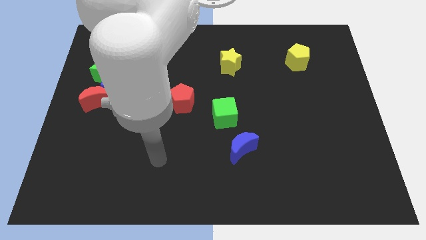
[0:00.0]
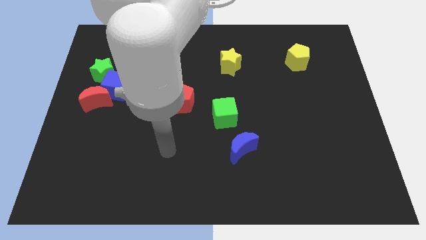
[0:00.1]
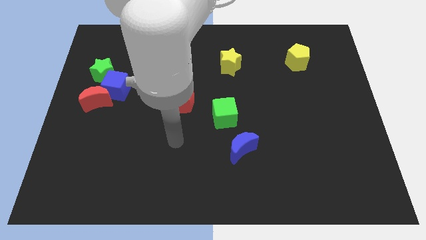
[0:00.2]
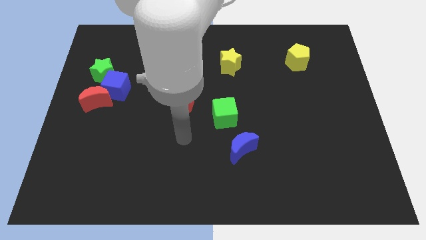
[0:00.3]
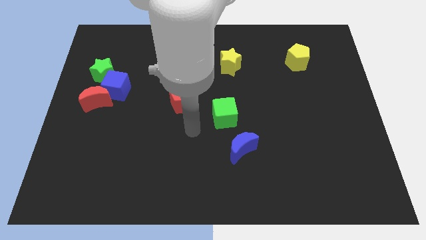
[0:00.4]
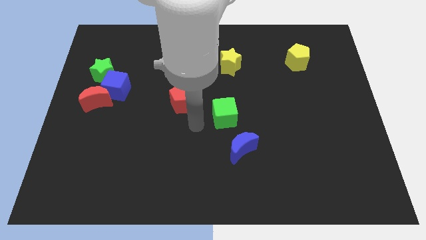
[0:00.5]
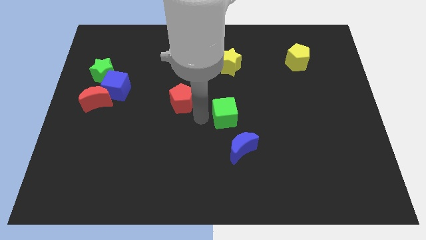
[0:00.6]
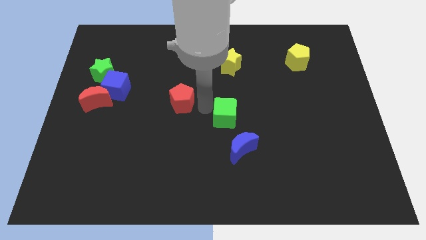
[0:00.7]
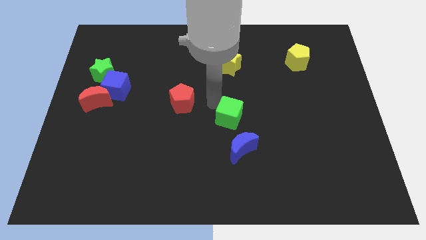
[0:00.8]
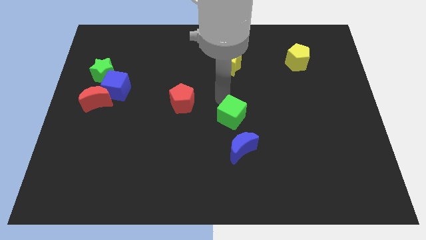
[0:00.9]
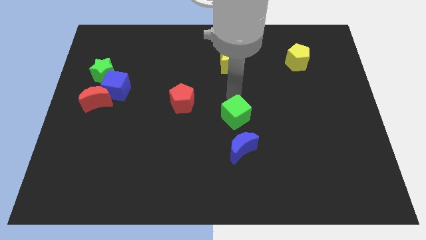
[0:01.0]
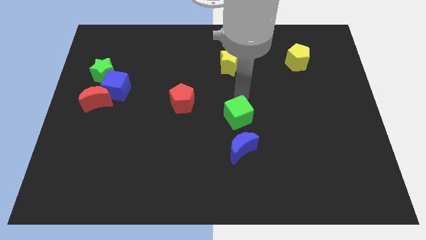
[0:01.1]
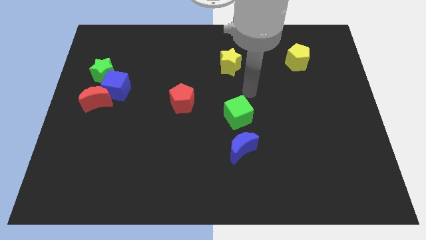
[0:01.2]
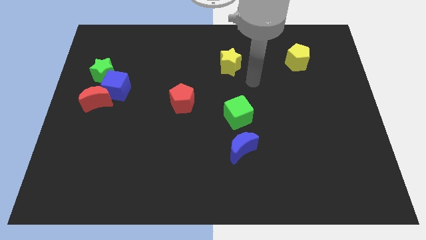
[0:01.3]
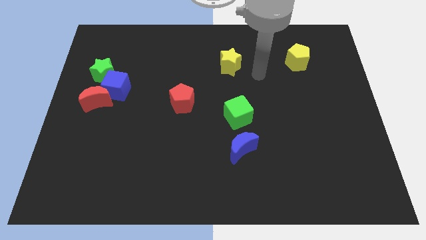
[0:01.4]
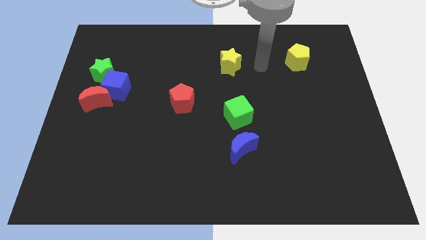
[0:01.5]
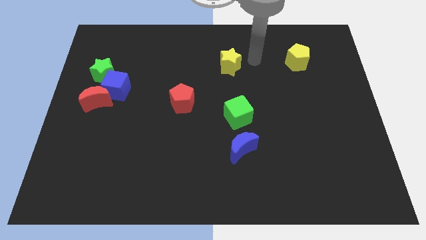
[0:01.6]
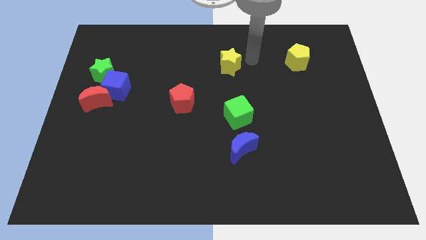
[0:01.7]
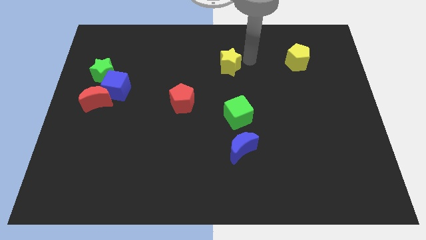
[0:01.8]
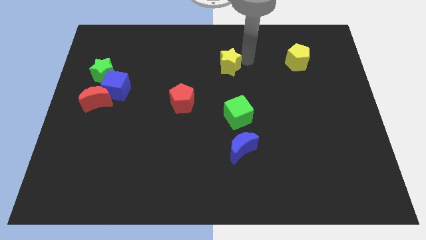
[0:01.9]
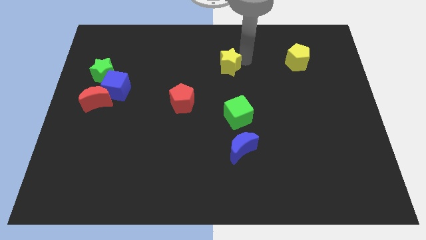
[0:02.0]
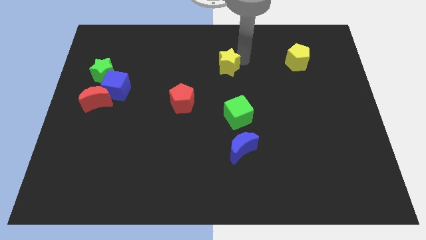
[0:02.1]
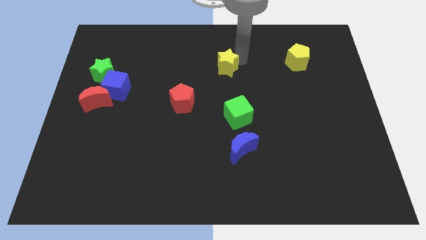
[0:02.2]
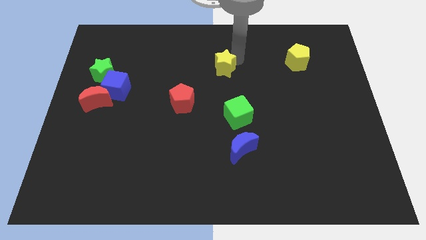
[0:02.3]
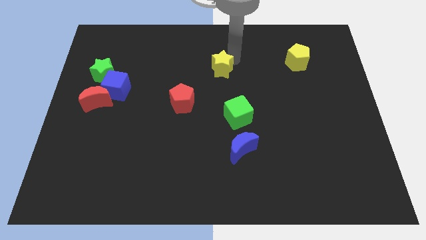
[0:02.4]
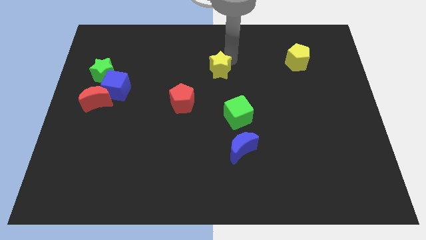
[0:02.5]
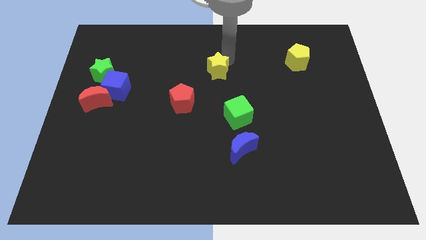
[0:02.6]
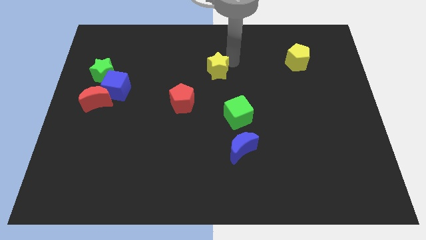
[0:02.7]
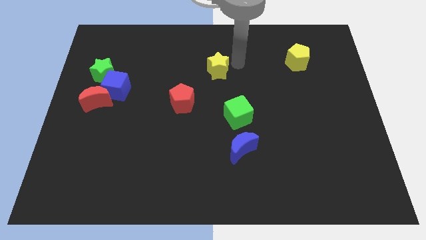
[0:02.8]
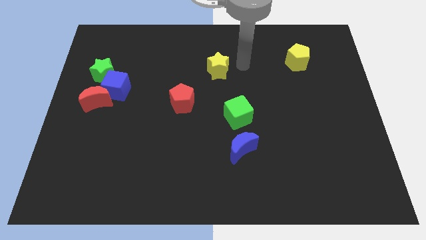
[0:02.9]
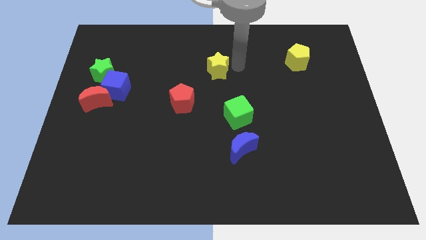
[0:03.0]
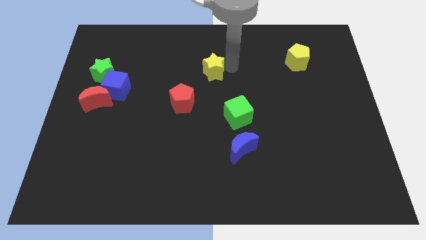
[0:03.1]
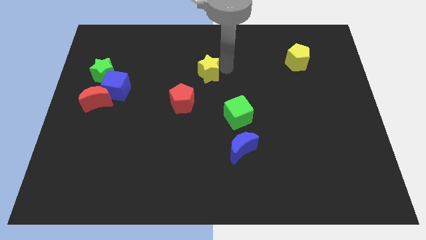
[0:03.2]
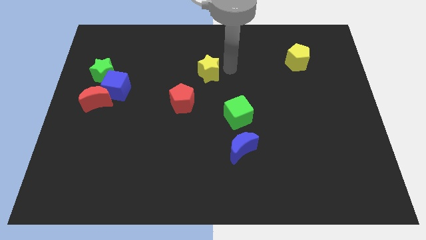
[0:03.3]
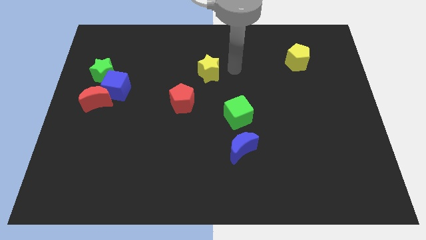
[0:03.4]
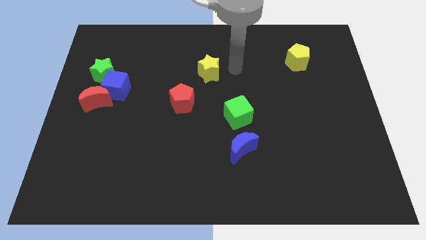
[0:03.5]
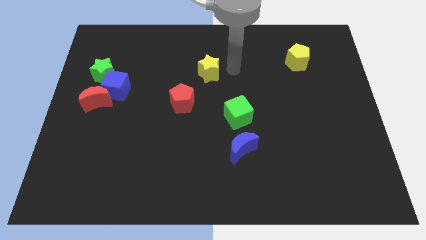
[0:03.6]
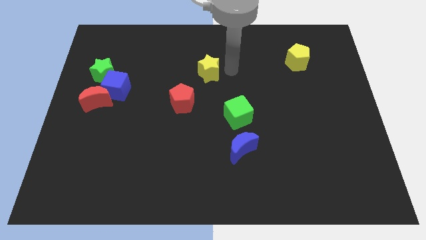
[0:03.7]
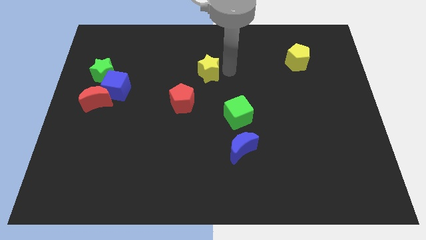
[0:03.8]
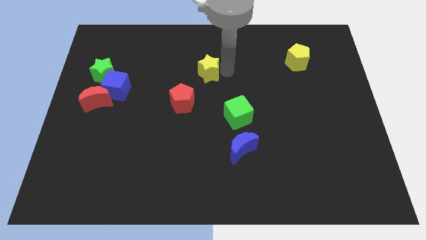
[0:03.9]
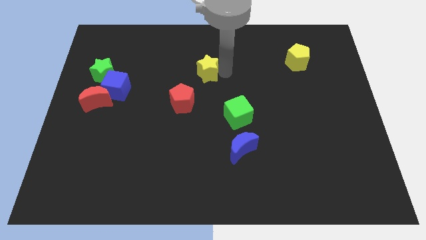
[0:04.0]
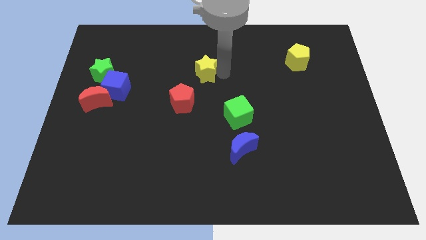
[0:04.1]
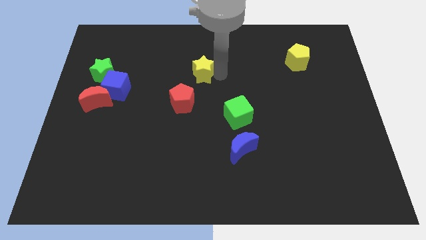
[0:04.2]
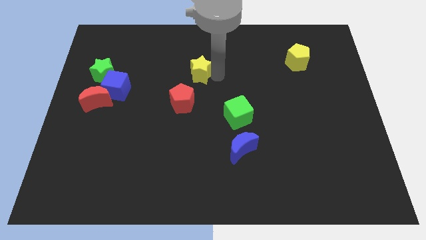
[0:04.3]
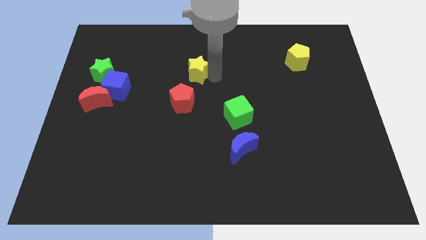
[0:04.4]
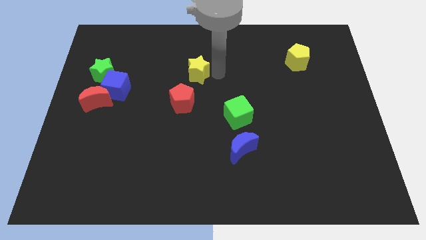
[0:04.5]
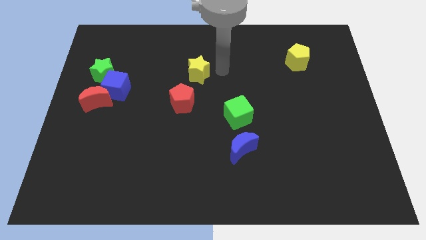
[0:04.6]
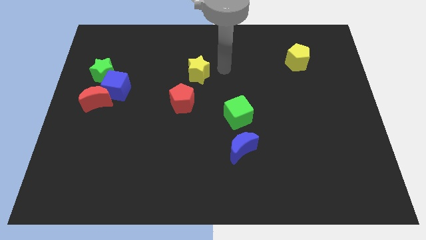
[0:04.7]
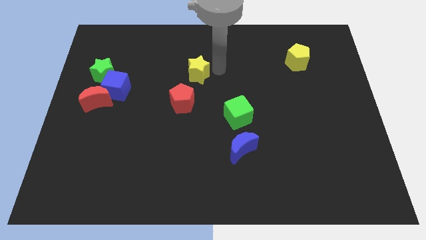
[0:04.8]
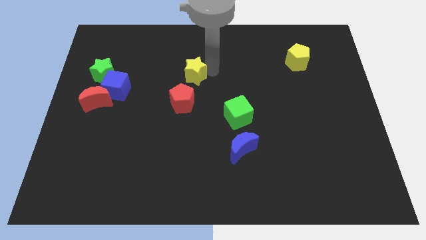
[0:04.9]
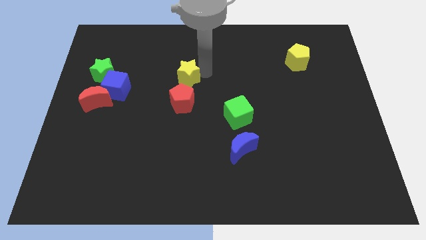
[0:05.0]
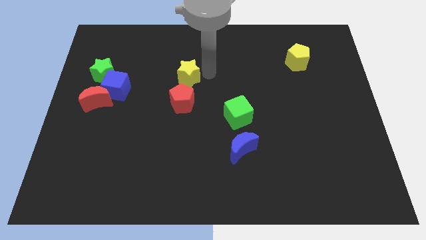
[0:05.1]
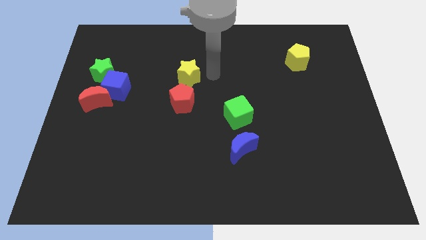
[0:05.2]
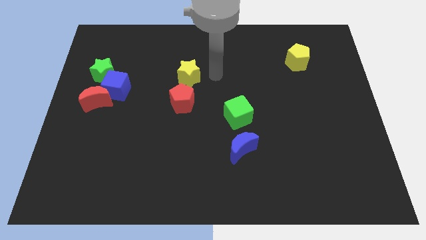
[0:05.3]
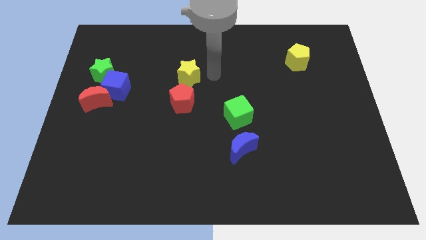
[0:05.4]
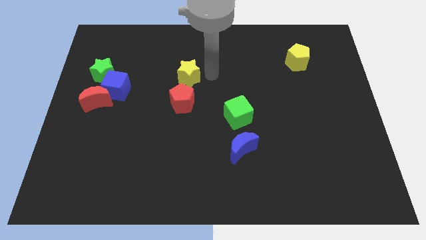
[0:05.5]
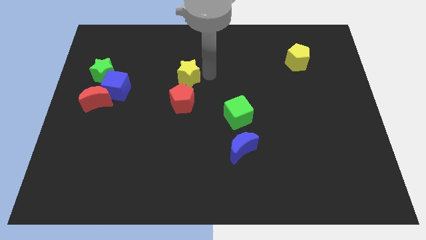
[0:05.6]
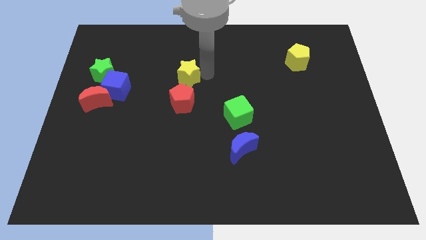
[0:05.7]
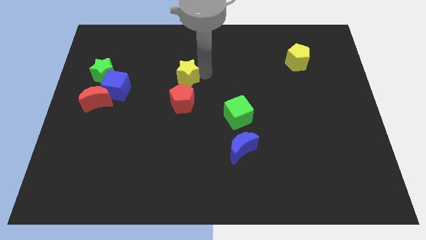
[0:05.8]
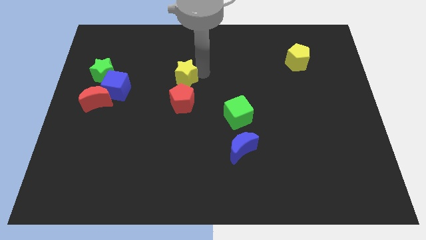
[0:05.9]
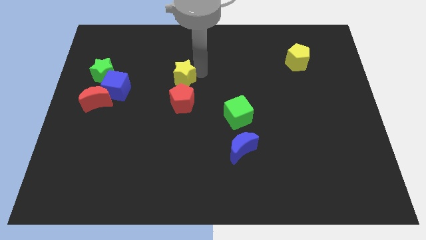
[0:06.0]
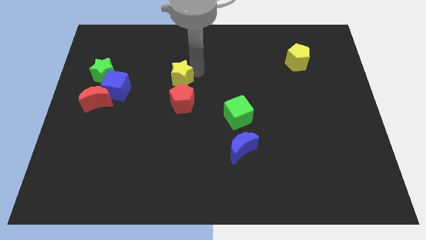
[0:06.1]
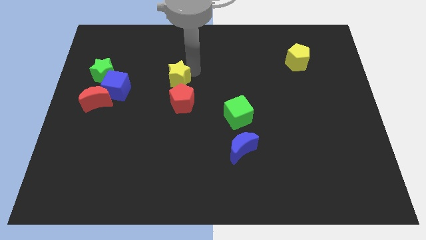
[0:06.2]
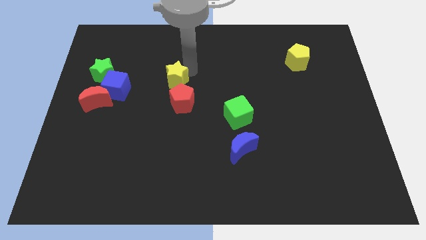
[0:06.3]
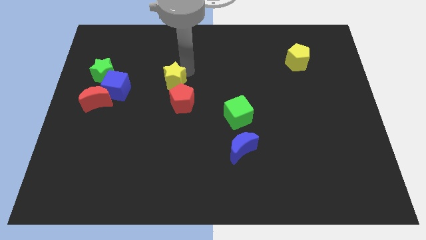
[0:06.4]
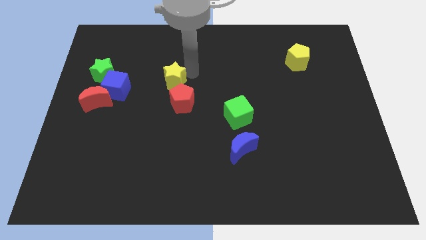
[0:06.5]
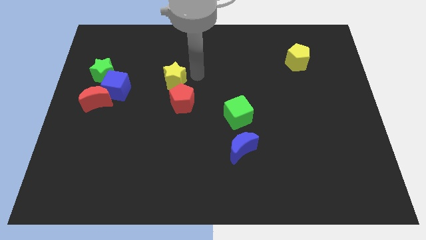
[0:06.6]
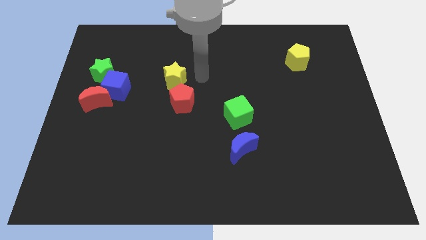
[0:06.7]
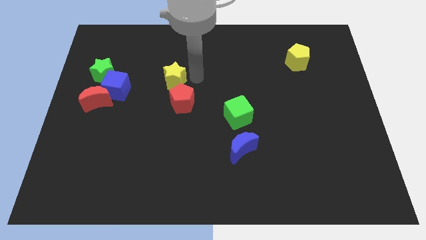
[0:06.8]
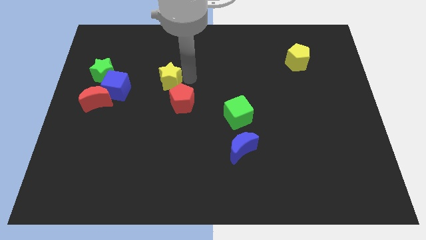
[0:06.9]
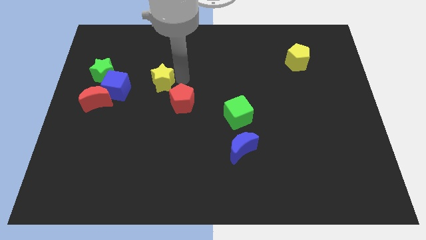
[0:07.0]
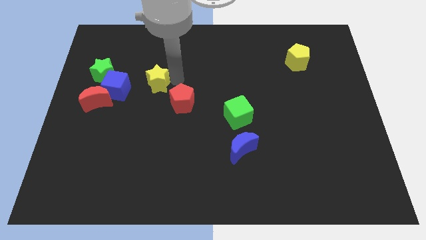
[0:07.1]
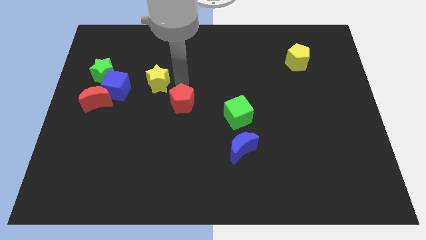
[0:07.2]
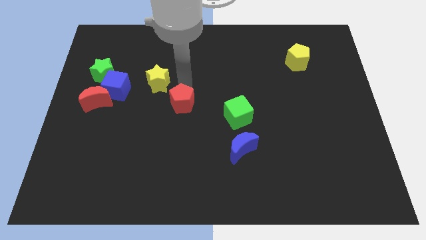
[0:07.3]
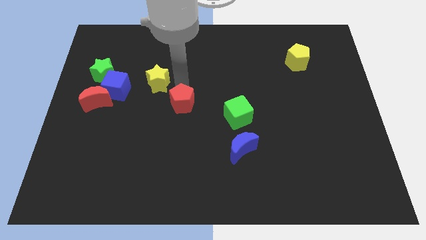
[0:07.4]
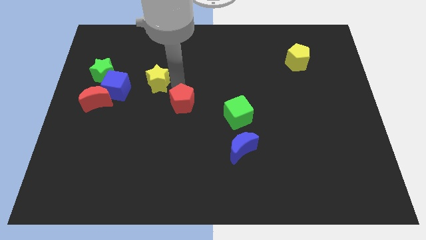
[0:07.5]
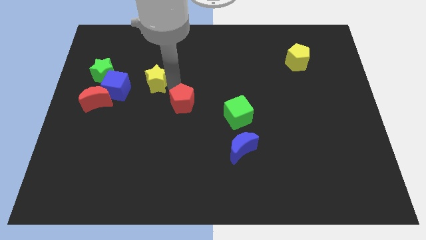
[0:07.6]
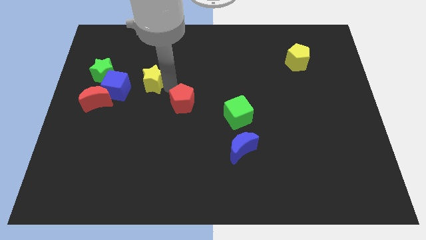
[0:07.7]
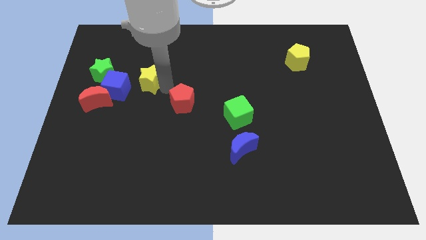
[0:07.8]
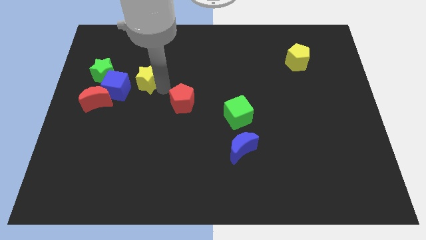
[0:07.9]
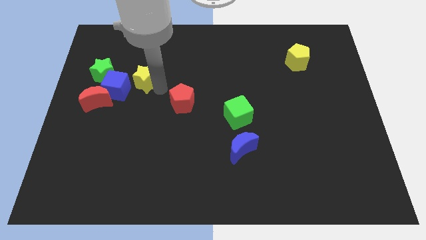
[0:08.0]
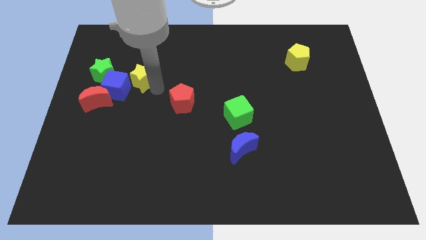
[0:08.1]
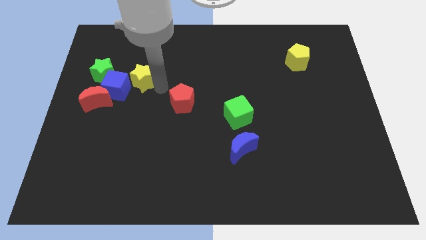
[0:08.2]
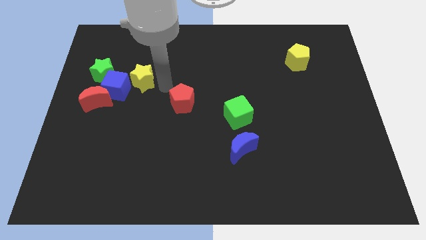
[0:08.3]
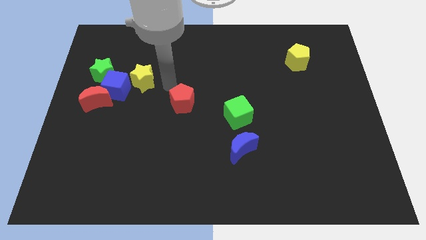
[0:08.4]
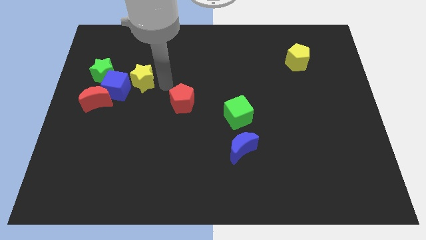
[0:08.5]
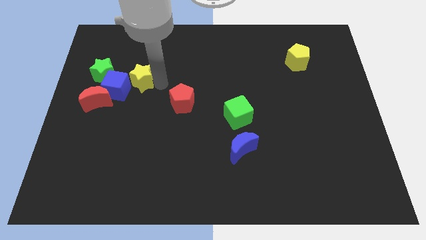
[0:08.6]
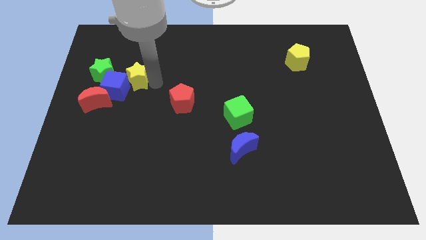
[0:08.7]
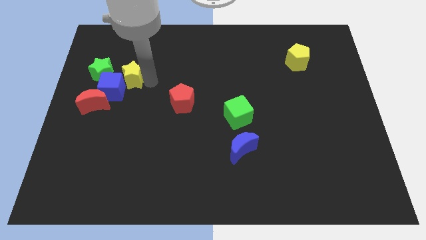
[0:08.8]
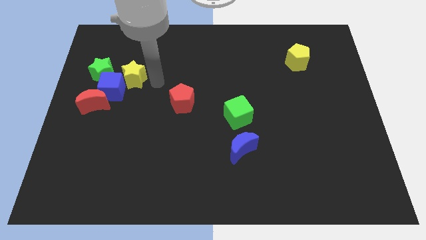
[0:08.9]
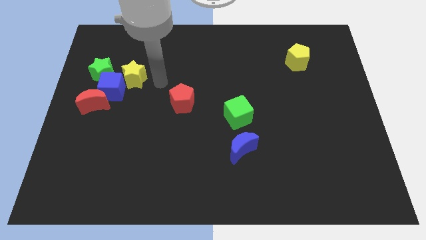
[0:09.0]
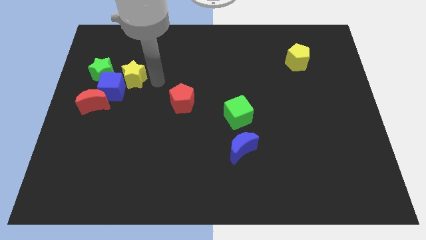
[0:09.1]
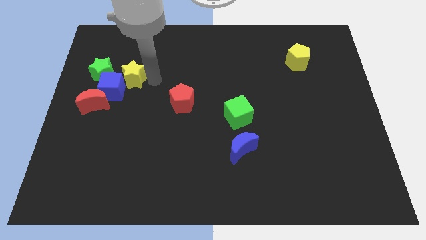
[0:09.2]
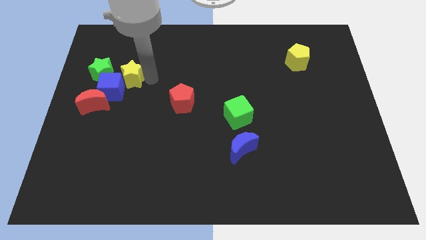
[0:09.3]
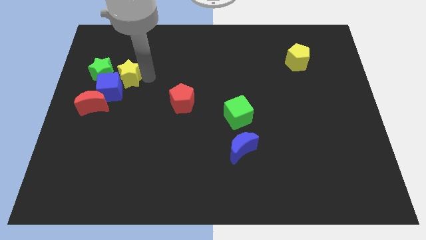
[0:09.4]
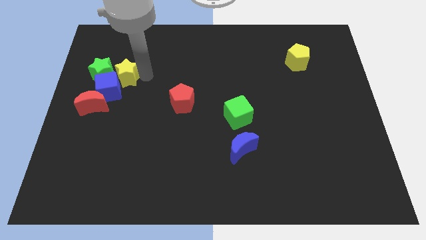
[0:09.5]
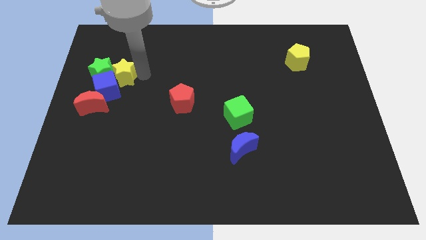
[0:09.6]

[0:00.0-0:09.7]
put the yellow star next to the green star
